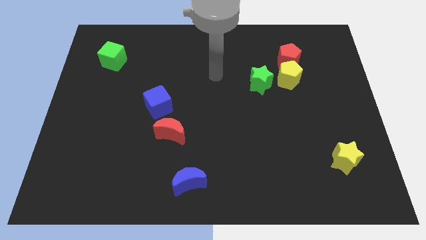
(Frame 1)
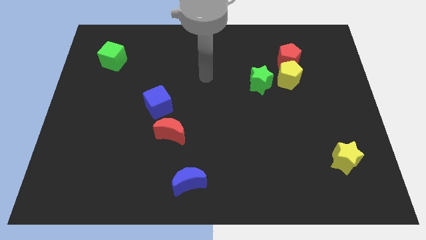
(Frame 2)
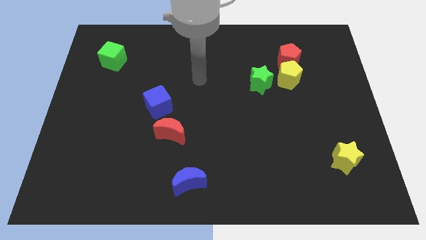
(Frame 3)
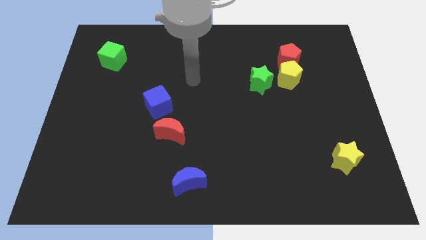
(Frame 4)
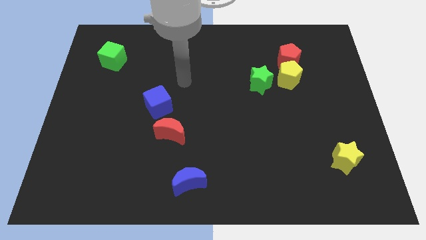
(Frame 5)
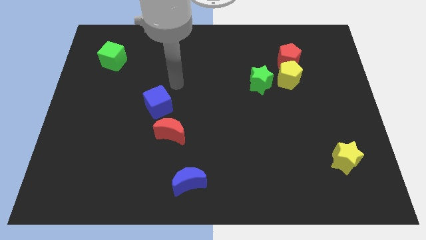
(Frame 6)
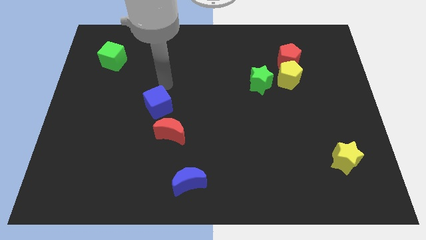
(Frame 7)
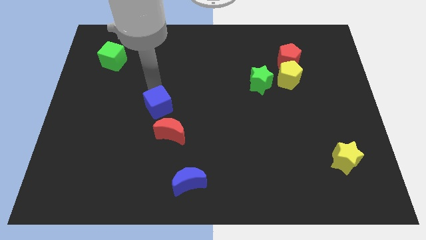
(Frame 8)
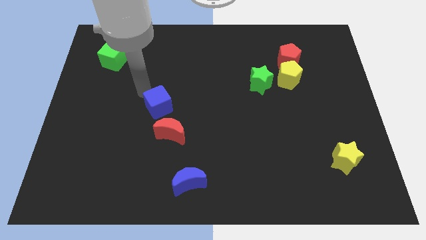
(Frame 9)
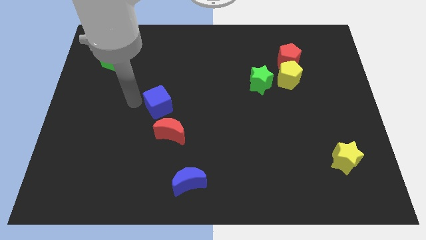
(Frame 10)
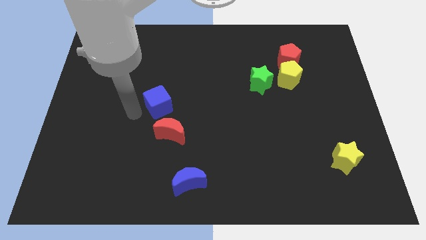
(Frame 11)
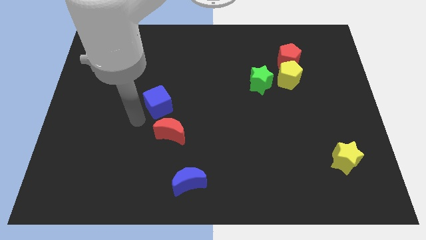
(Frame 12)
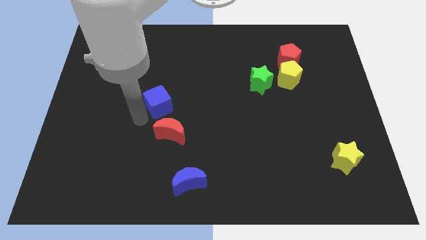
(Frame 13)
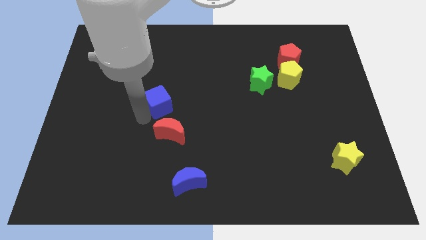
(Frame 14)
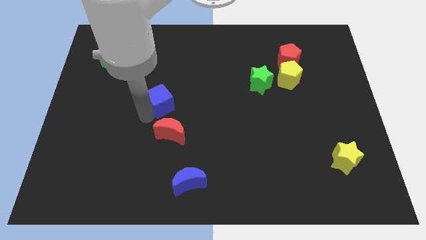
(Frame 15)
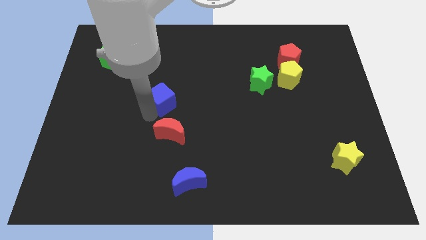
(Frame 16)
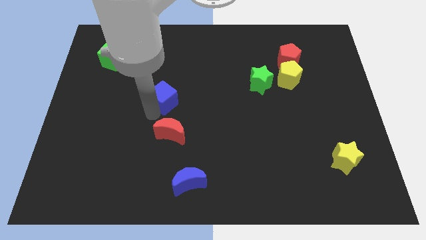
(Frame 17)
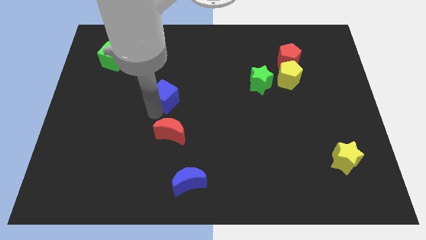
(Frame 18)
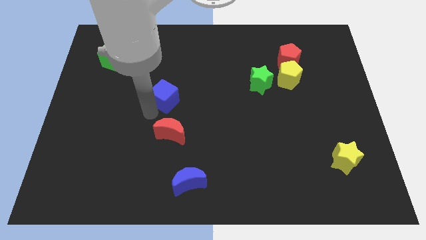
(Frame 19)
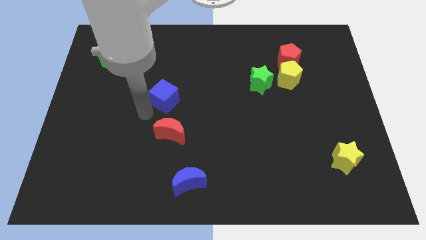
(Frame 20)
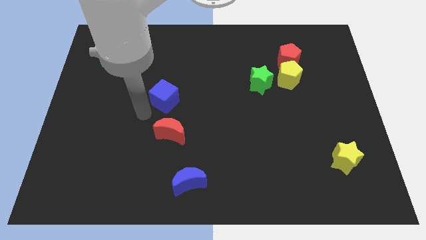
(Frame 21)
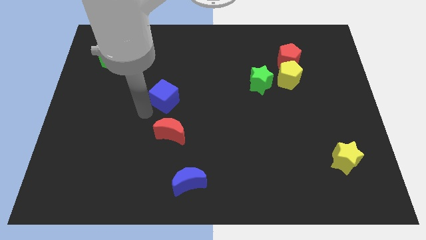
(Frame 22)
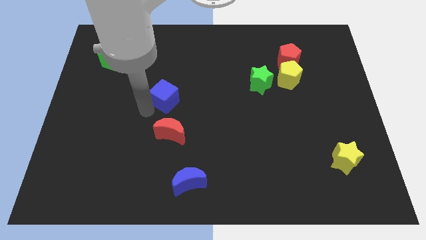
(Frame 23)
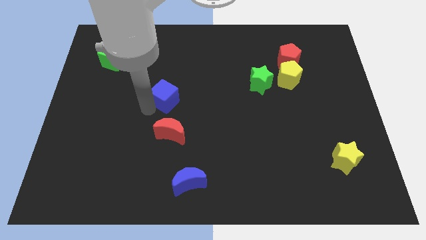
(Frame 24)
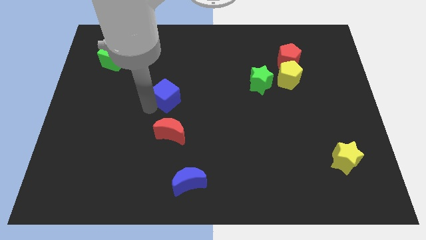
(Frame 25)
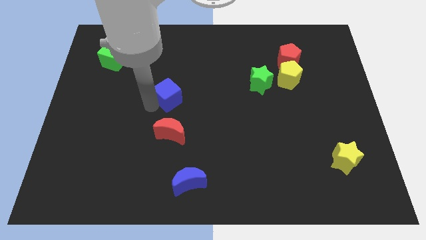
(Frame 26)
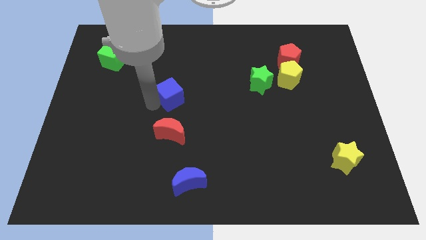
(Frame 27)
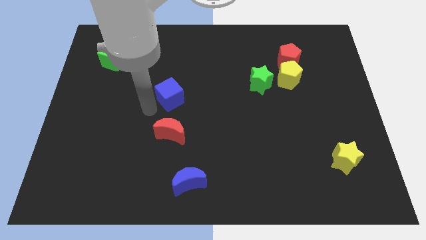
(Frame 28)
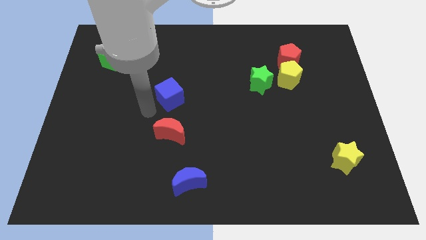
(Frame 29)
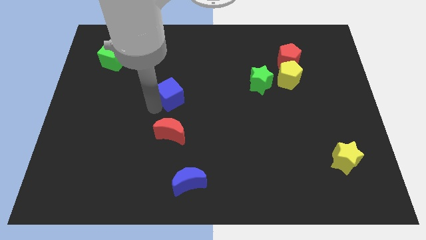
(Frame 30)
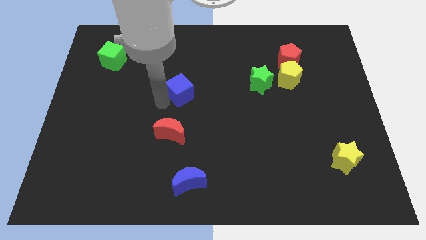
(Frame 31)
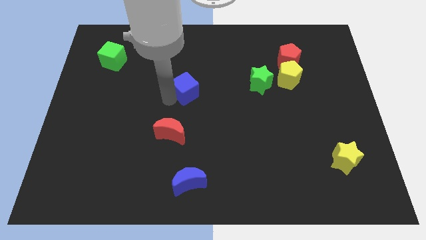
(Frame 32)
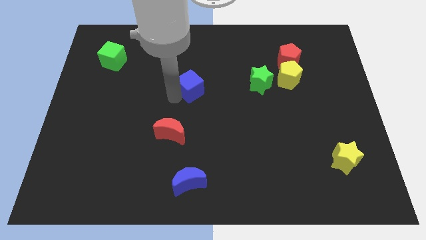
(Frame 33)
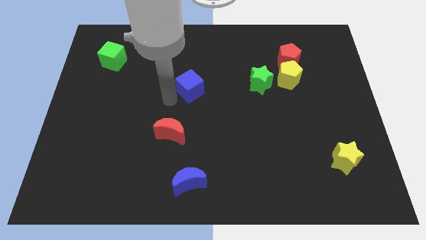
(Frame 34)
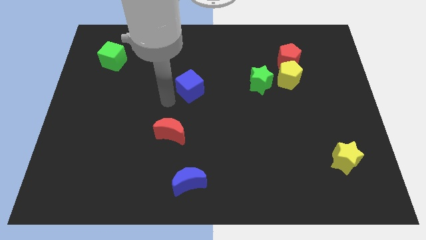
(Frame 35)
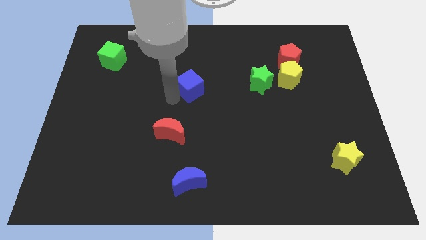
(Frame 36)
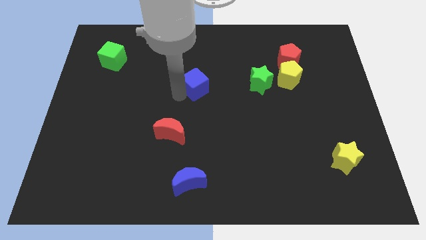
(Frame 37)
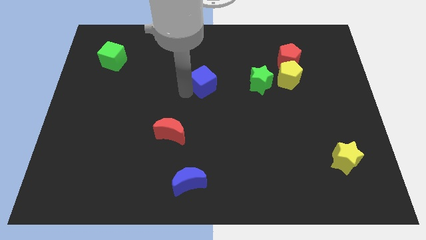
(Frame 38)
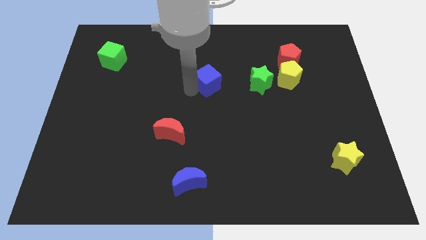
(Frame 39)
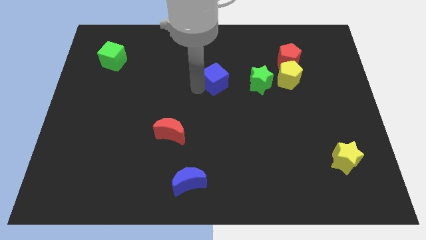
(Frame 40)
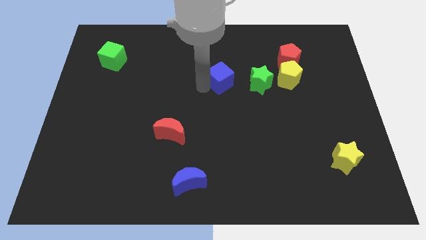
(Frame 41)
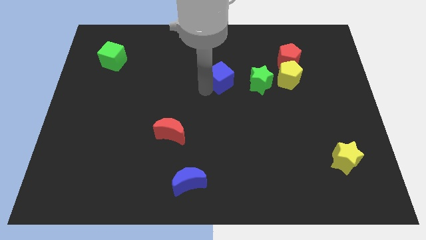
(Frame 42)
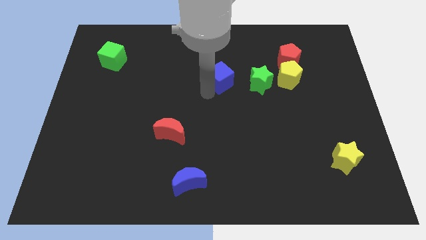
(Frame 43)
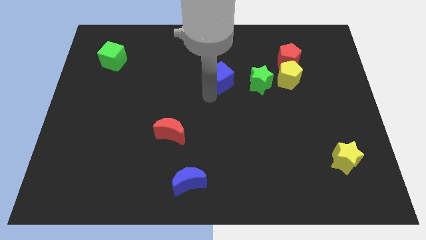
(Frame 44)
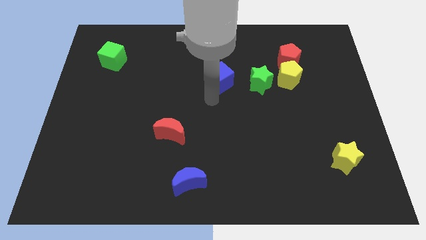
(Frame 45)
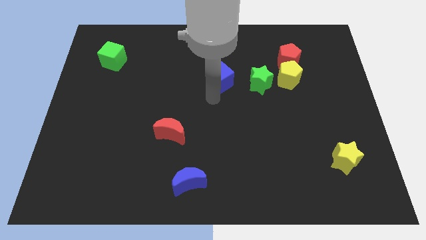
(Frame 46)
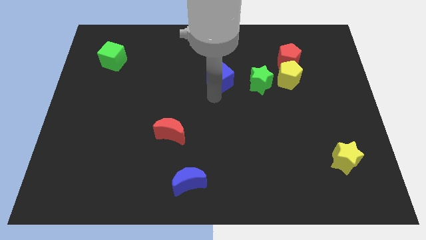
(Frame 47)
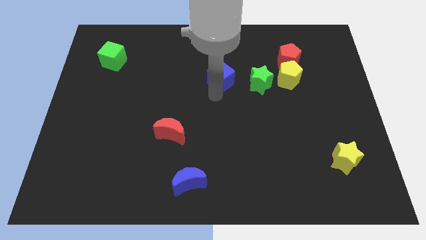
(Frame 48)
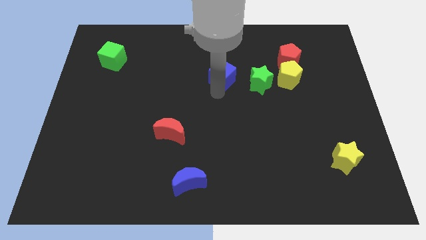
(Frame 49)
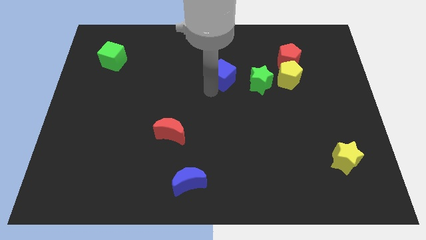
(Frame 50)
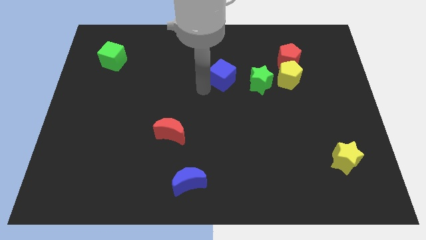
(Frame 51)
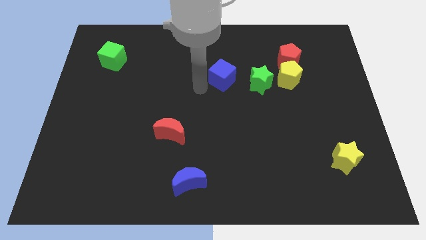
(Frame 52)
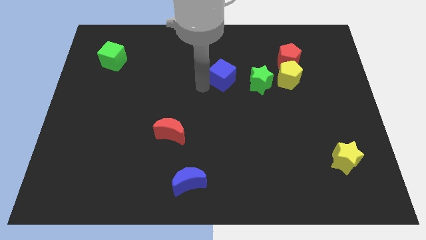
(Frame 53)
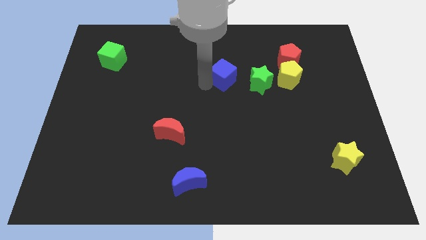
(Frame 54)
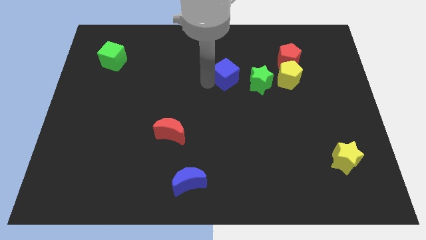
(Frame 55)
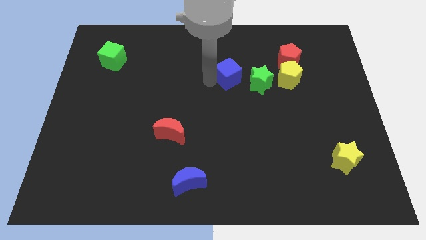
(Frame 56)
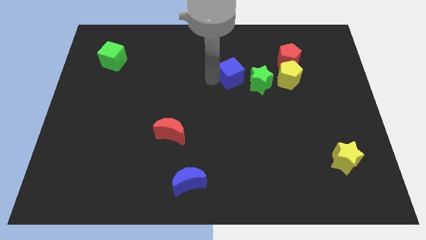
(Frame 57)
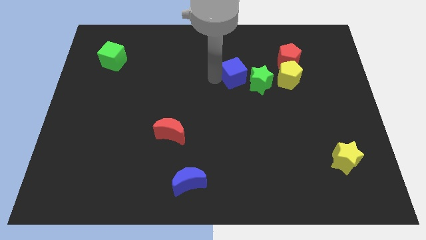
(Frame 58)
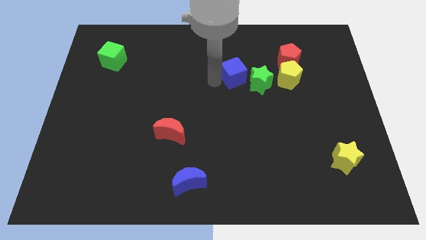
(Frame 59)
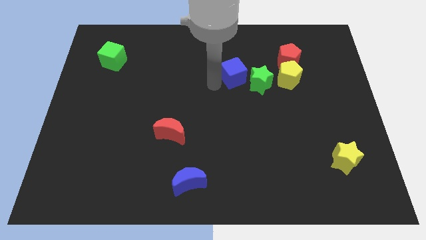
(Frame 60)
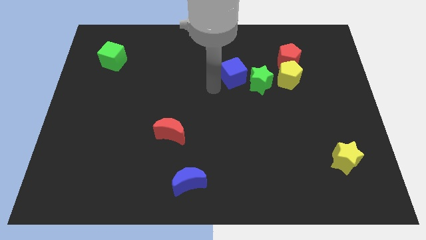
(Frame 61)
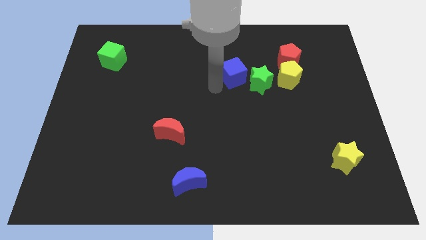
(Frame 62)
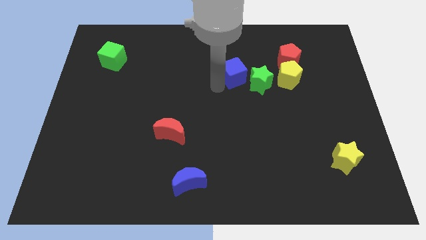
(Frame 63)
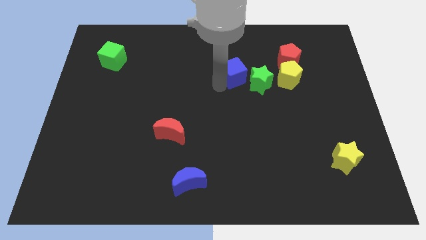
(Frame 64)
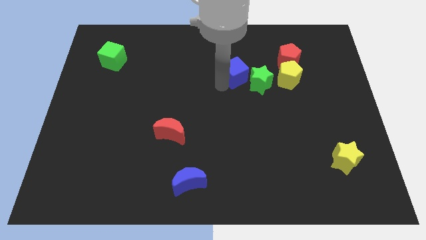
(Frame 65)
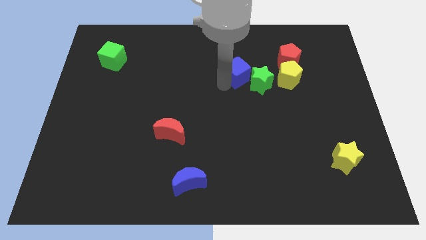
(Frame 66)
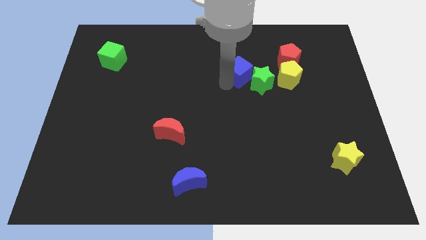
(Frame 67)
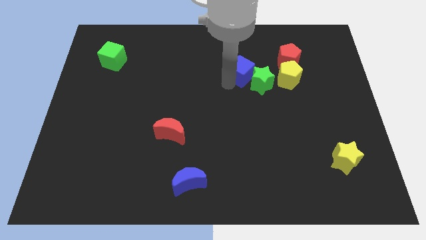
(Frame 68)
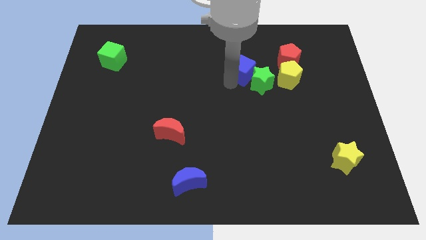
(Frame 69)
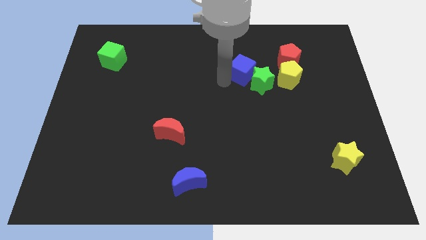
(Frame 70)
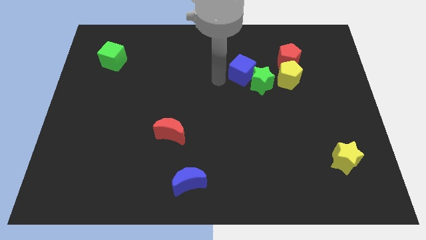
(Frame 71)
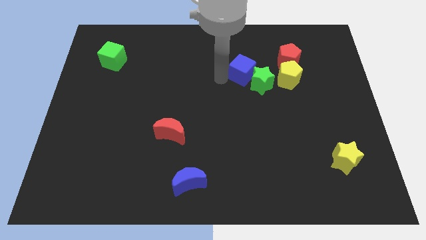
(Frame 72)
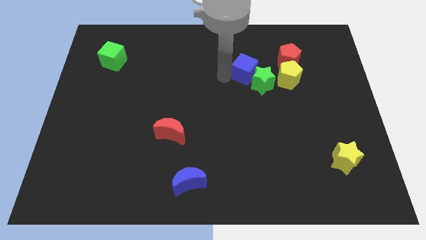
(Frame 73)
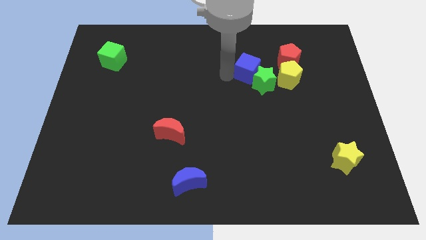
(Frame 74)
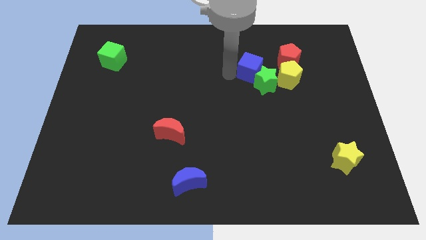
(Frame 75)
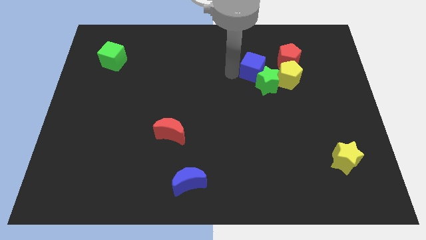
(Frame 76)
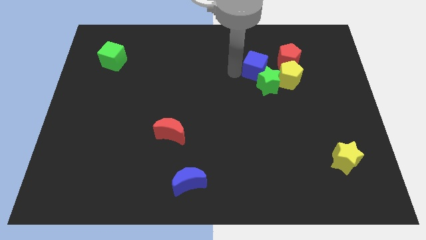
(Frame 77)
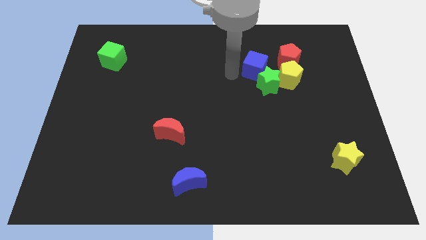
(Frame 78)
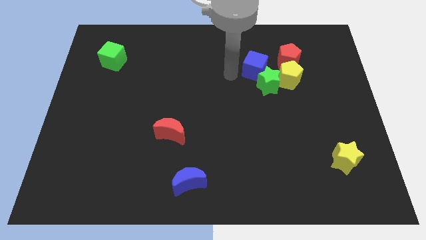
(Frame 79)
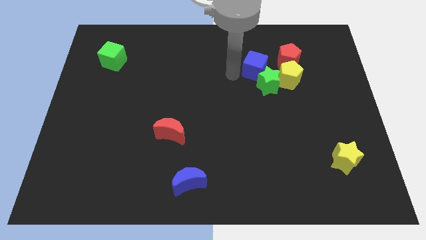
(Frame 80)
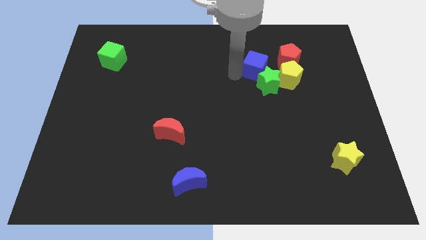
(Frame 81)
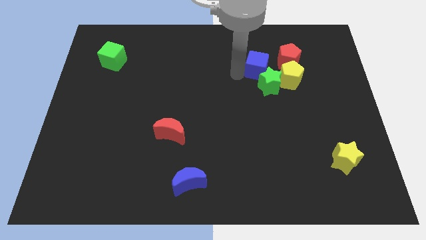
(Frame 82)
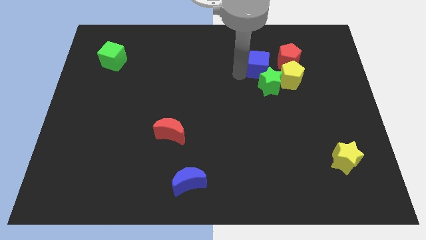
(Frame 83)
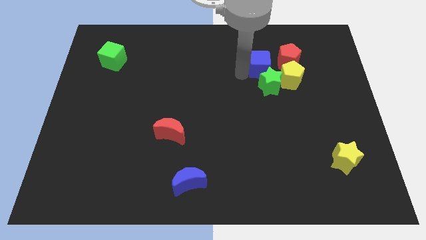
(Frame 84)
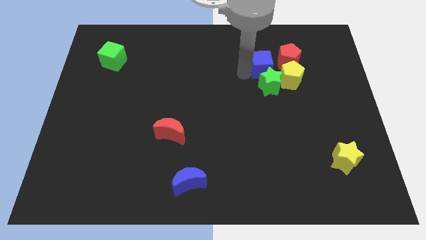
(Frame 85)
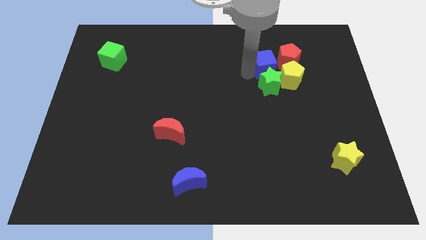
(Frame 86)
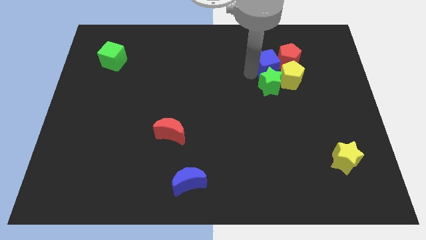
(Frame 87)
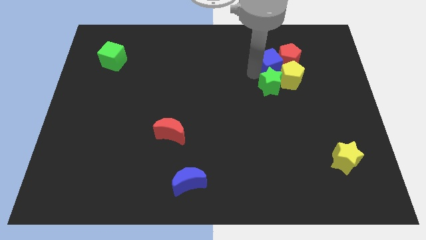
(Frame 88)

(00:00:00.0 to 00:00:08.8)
slide the blue cube towards the red pentagon
